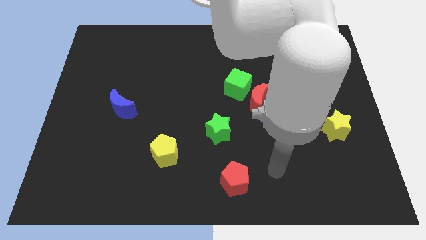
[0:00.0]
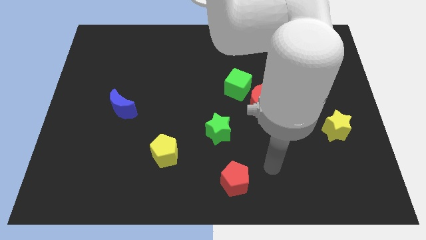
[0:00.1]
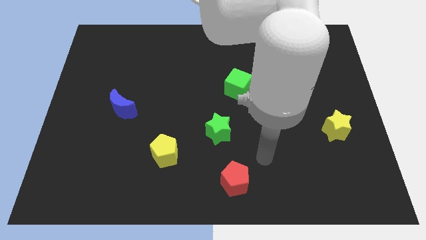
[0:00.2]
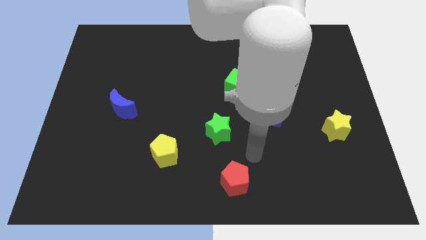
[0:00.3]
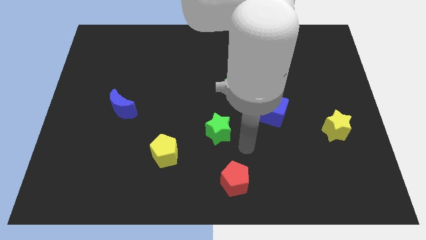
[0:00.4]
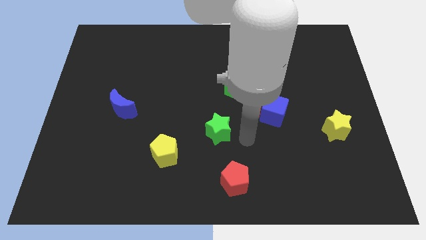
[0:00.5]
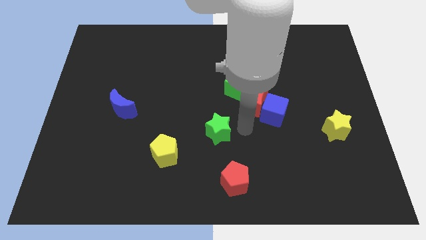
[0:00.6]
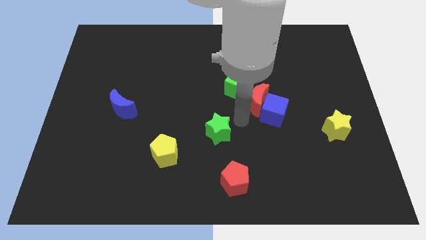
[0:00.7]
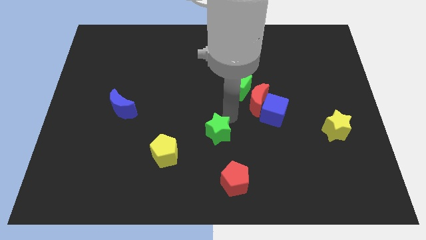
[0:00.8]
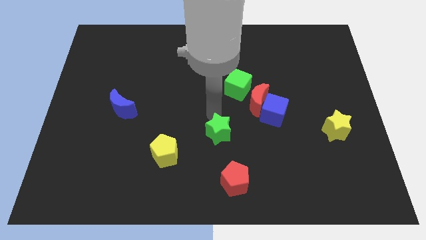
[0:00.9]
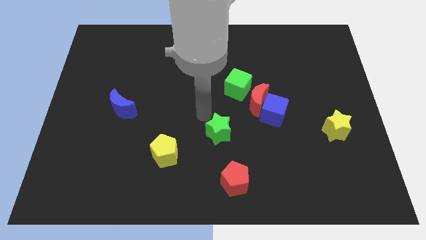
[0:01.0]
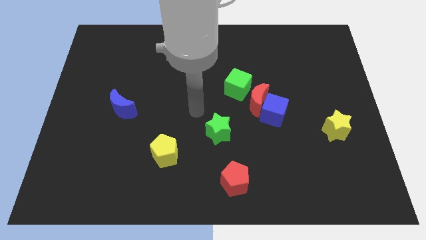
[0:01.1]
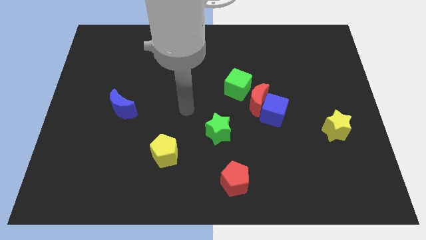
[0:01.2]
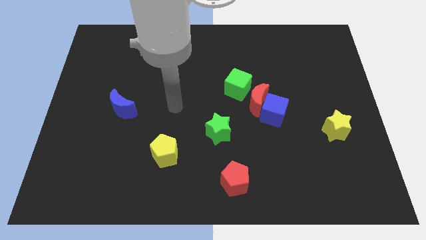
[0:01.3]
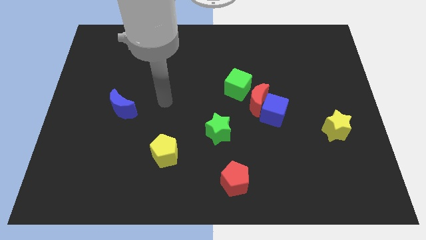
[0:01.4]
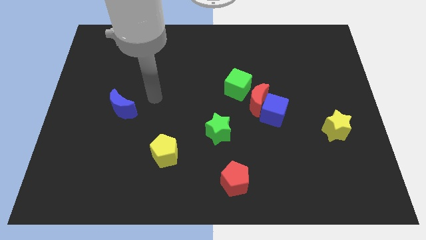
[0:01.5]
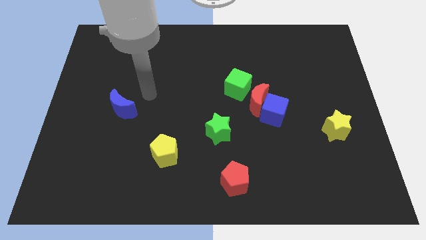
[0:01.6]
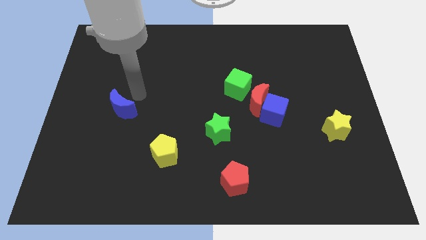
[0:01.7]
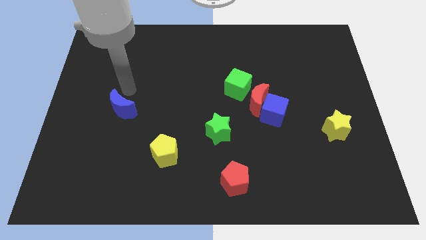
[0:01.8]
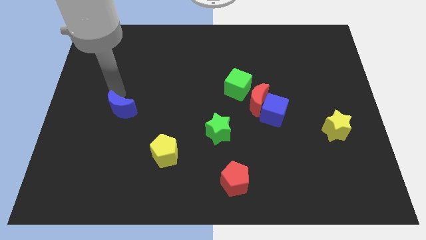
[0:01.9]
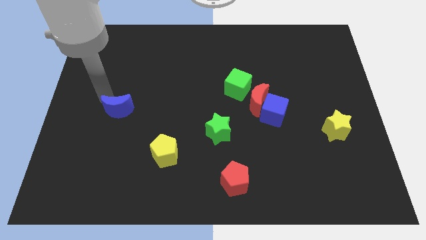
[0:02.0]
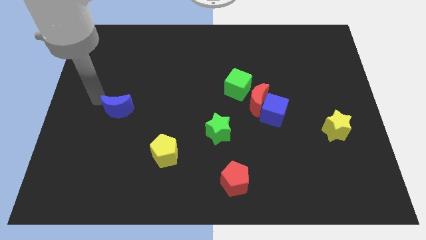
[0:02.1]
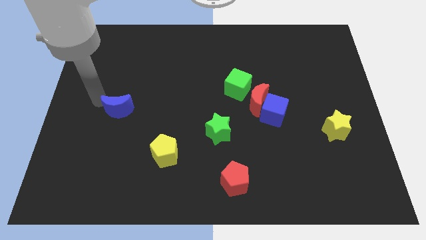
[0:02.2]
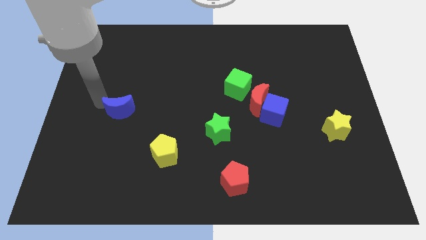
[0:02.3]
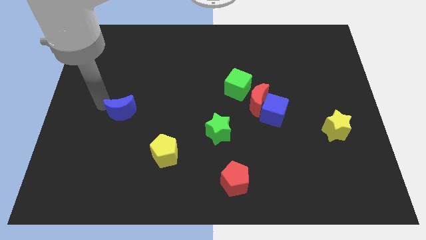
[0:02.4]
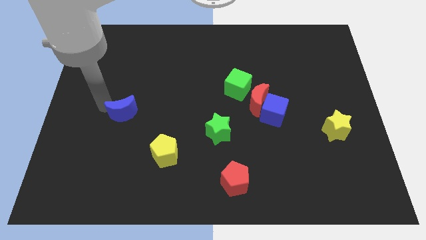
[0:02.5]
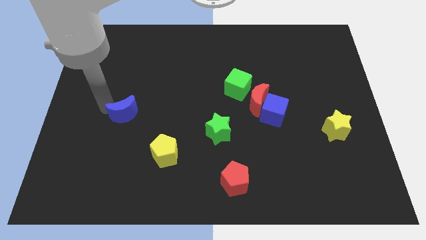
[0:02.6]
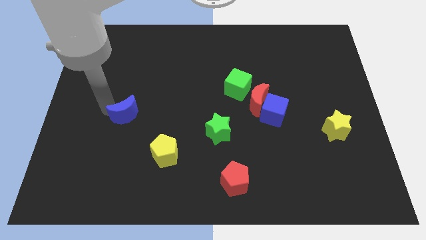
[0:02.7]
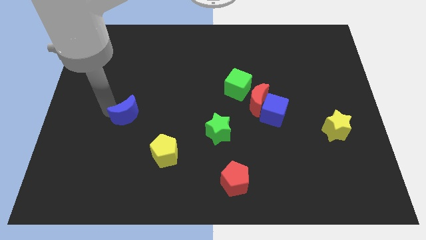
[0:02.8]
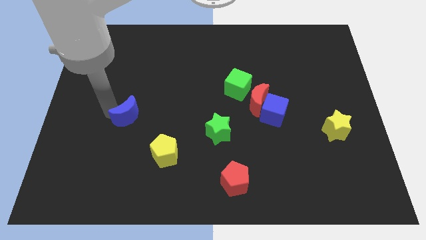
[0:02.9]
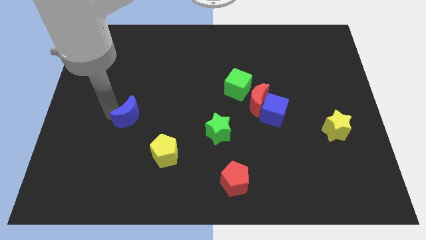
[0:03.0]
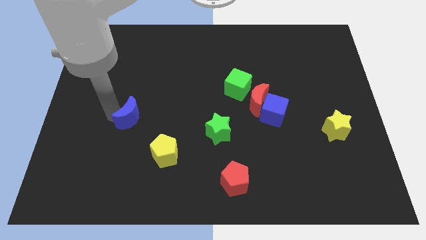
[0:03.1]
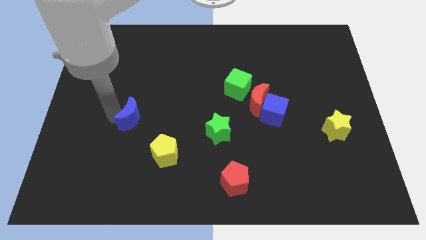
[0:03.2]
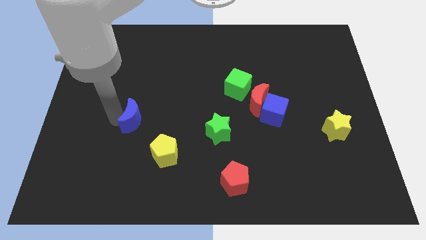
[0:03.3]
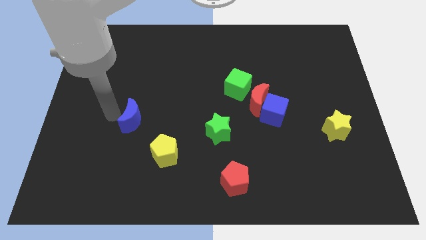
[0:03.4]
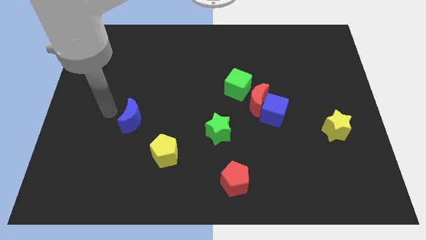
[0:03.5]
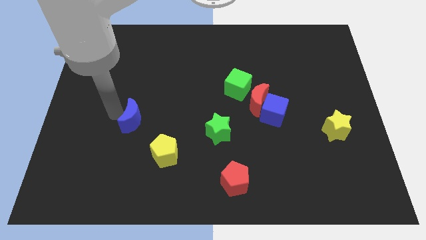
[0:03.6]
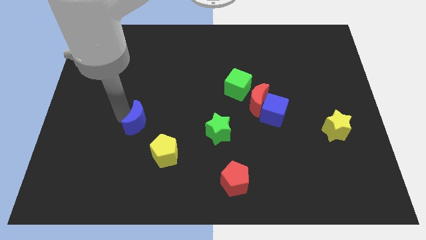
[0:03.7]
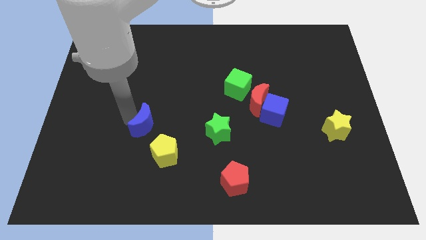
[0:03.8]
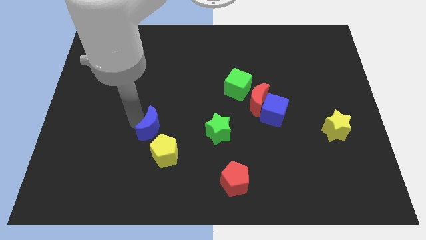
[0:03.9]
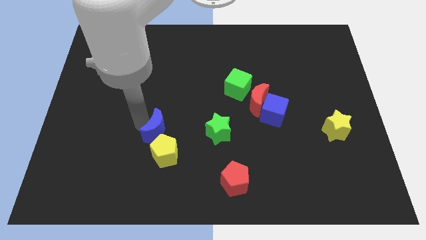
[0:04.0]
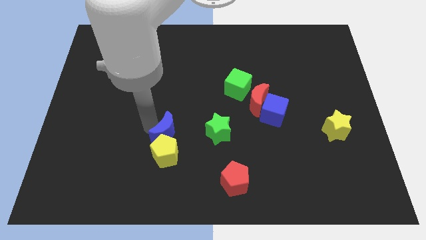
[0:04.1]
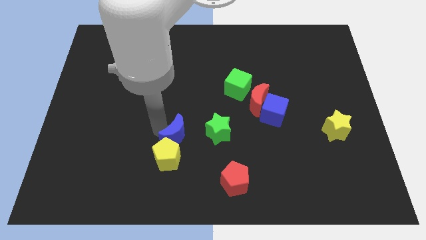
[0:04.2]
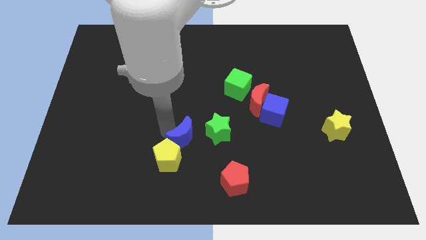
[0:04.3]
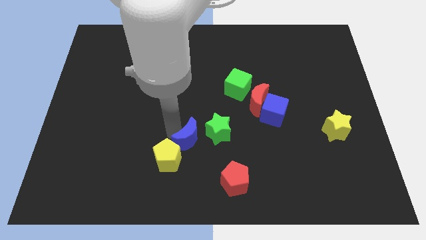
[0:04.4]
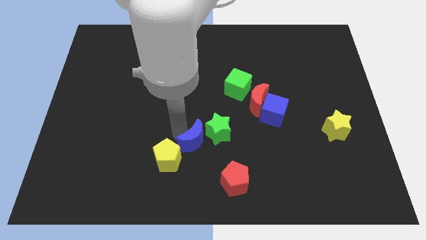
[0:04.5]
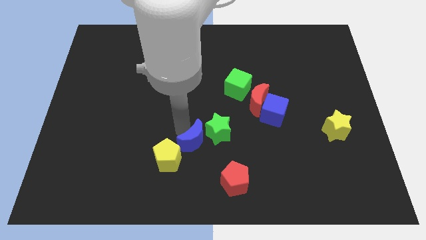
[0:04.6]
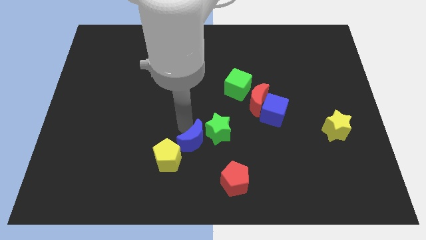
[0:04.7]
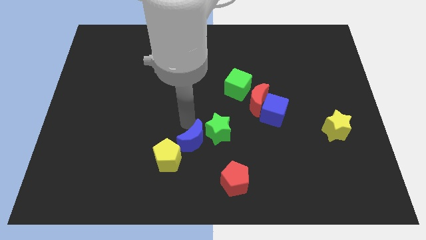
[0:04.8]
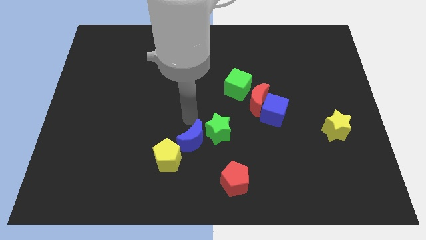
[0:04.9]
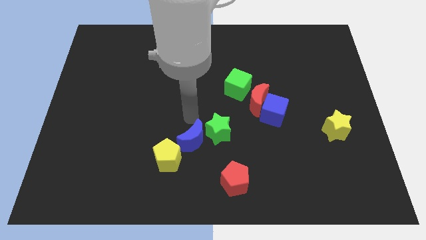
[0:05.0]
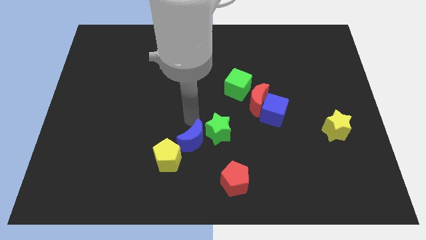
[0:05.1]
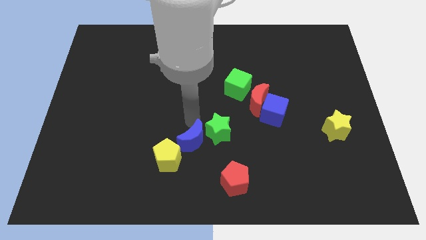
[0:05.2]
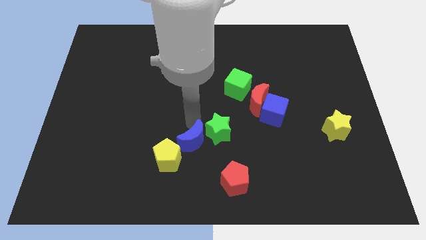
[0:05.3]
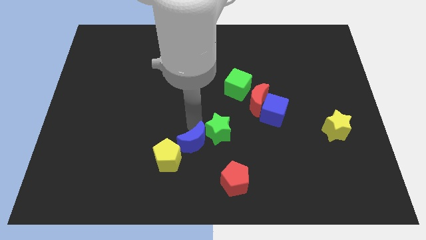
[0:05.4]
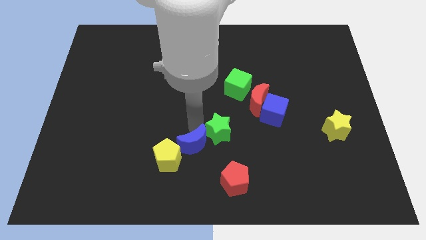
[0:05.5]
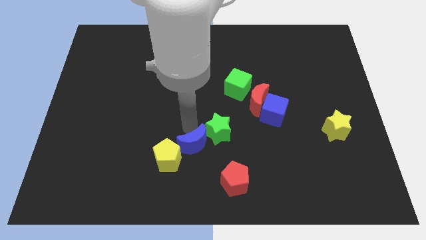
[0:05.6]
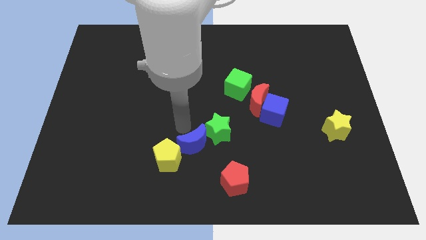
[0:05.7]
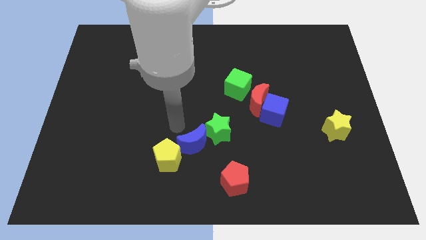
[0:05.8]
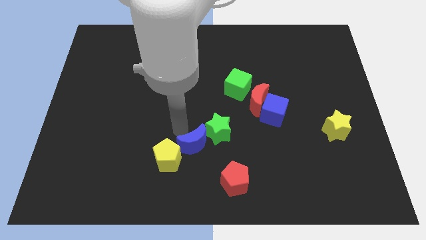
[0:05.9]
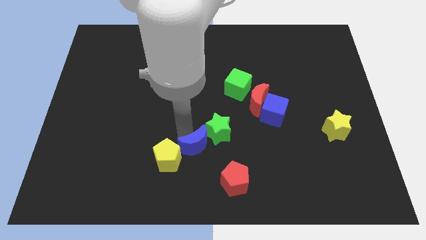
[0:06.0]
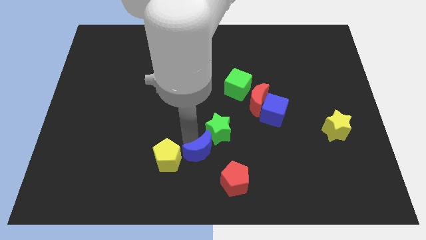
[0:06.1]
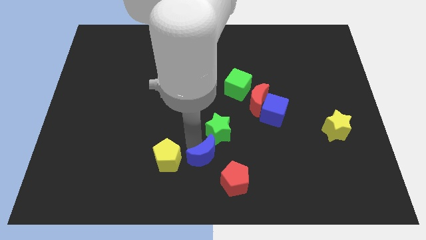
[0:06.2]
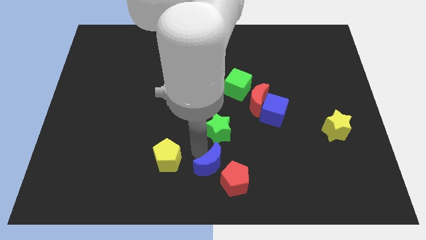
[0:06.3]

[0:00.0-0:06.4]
put the blue moon to the red pentagon
